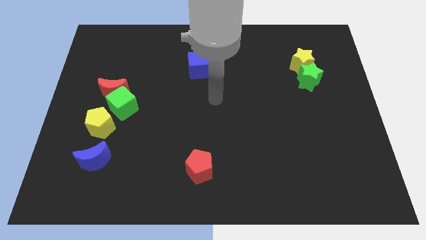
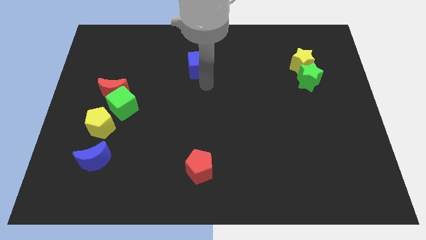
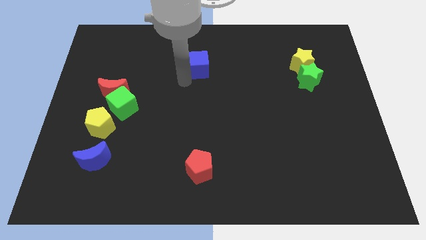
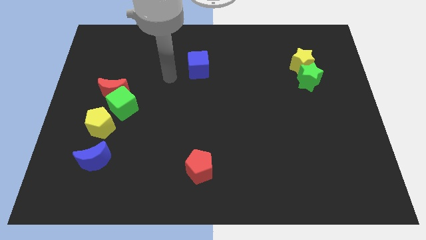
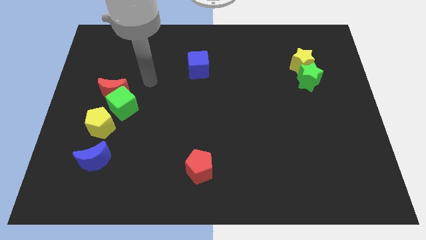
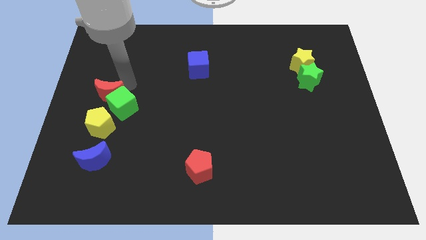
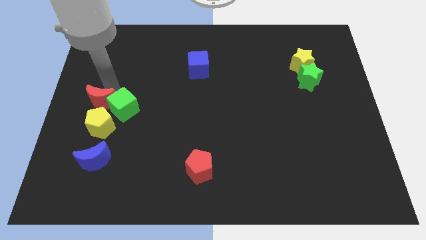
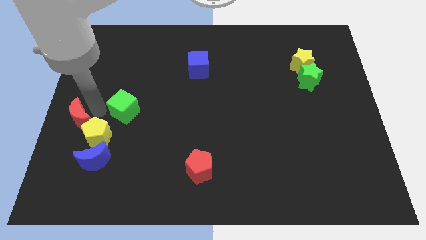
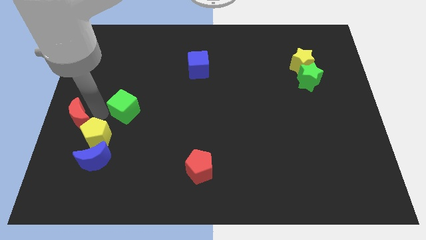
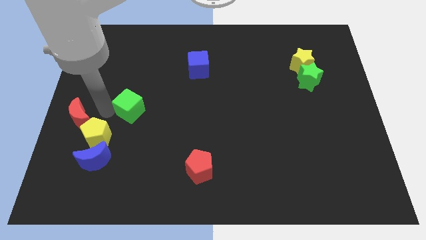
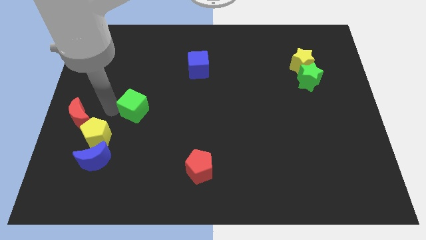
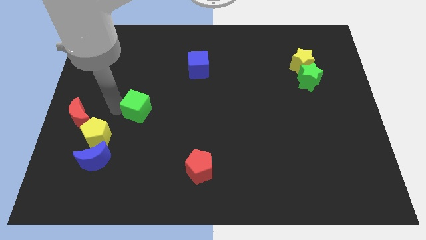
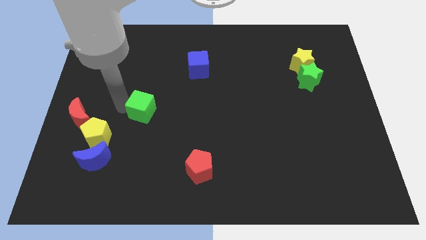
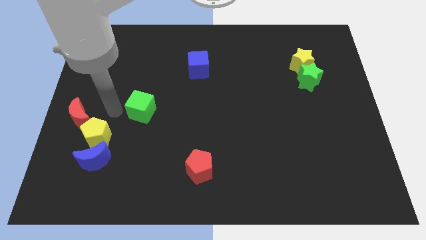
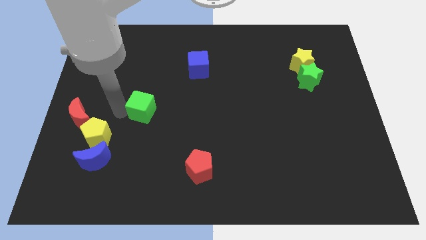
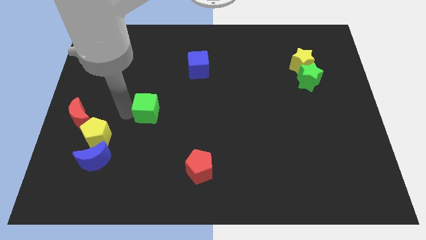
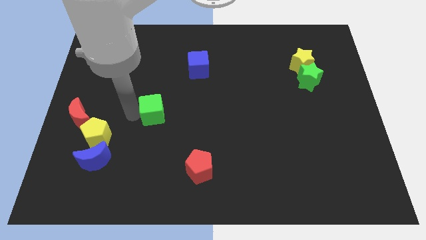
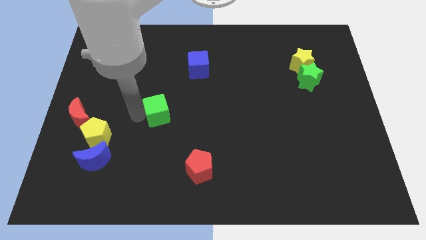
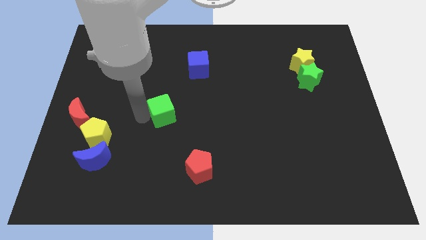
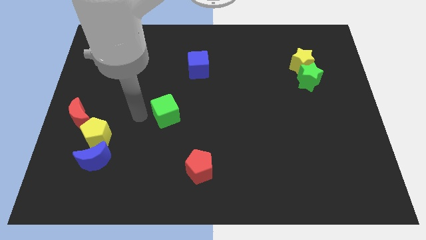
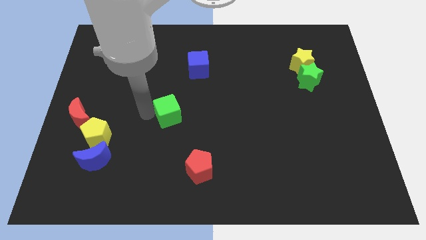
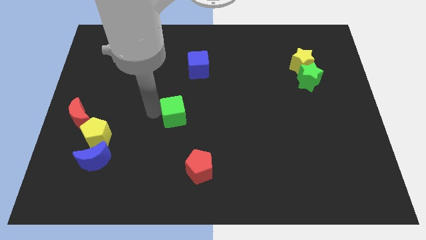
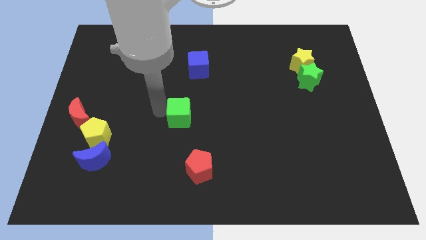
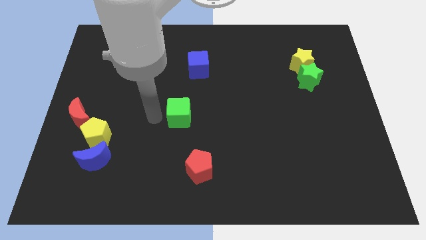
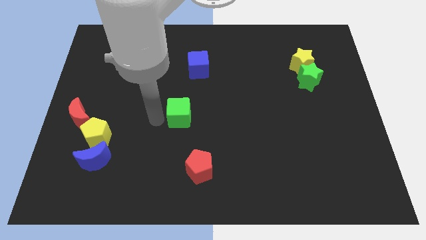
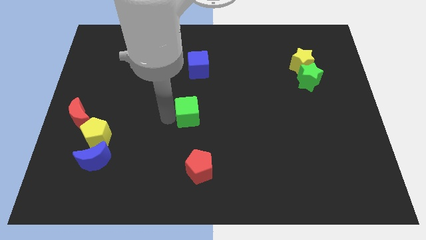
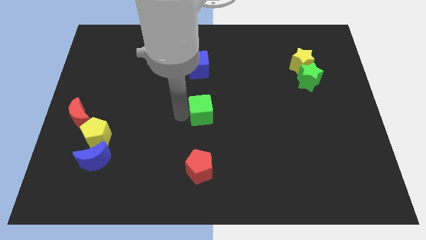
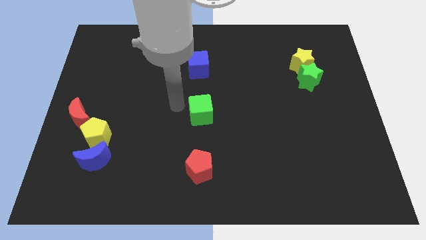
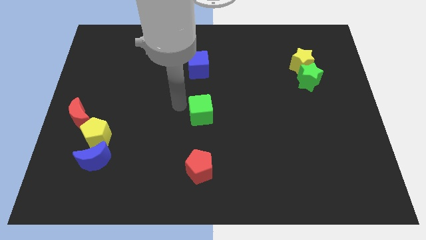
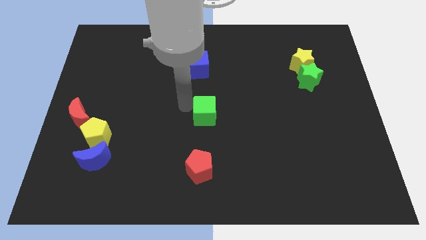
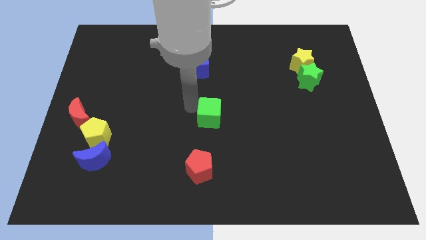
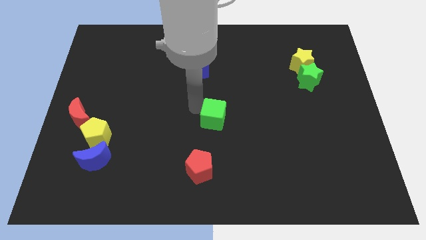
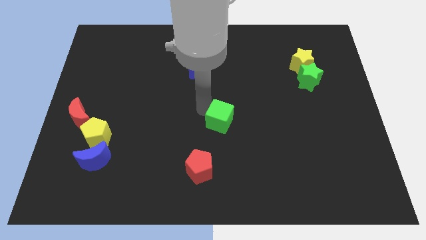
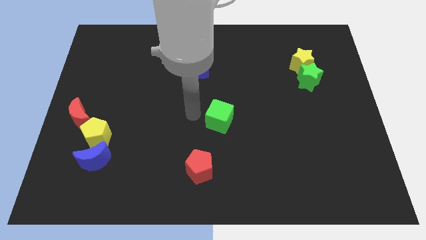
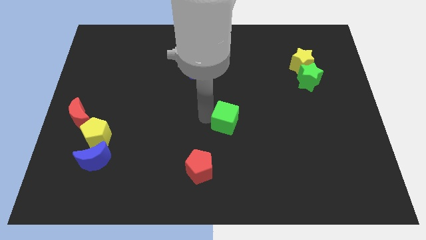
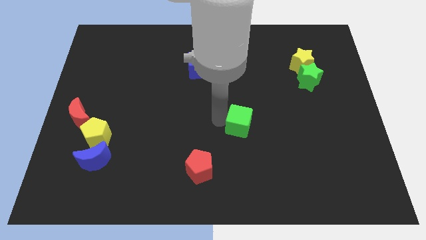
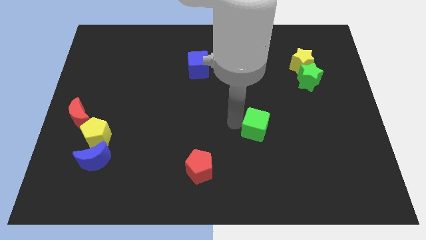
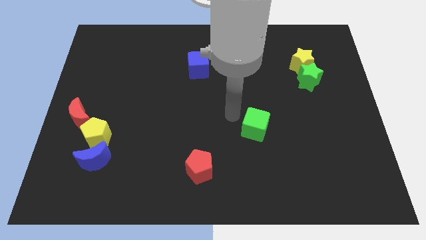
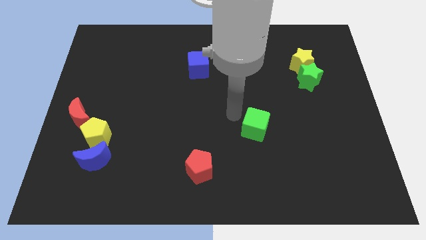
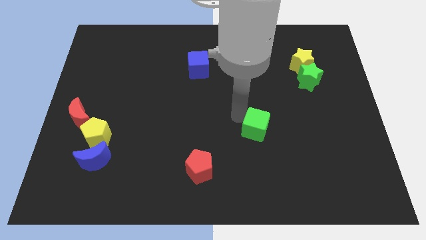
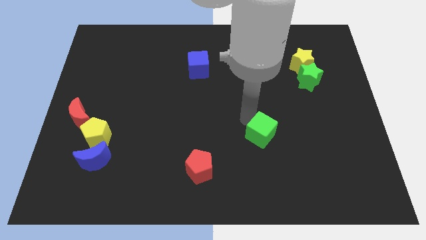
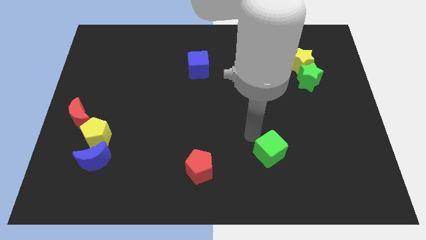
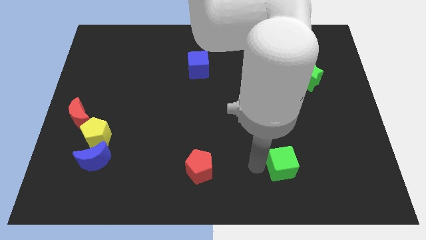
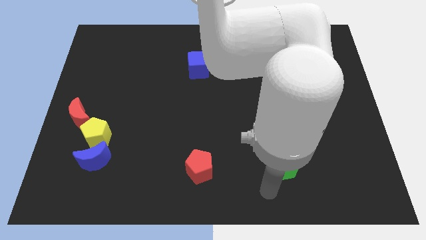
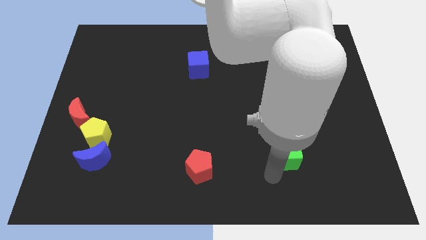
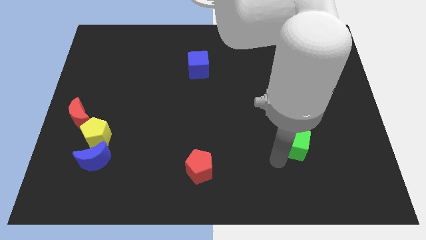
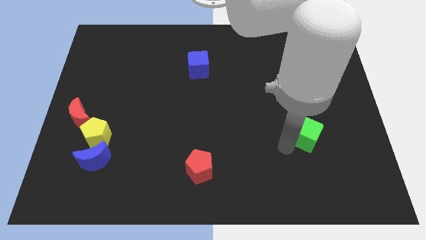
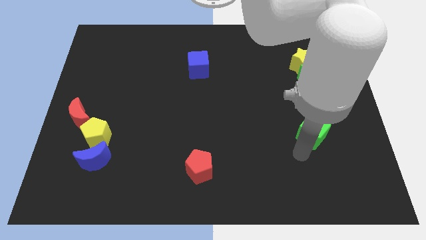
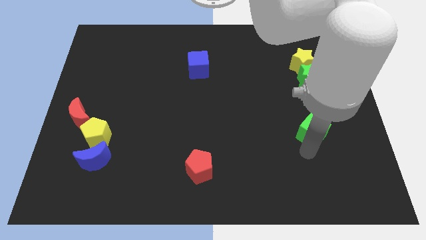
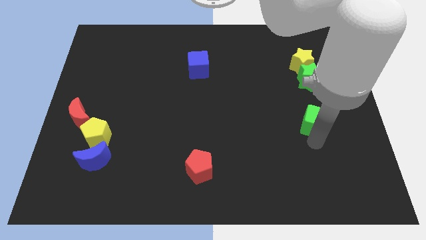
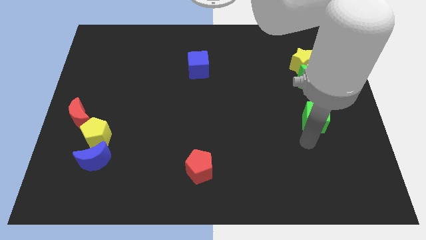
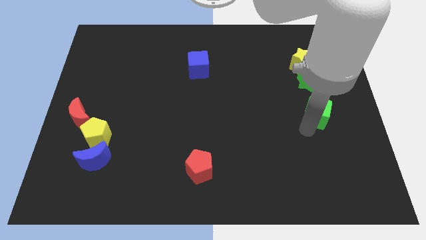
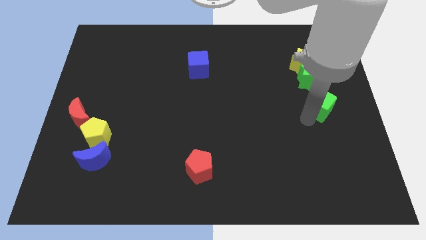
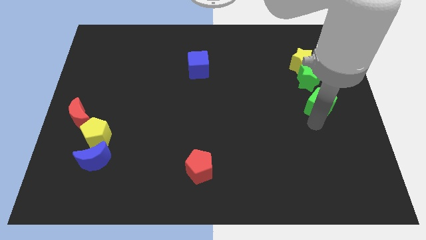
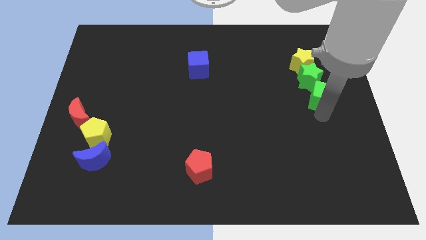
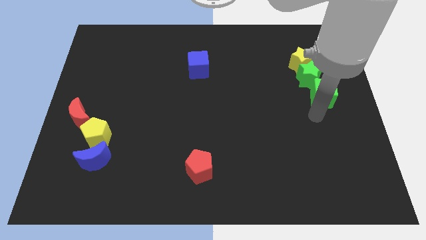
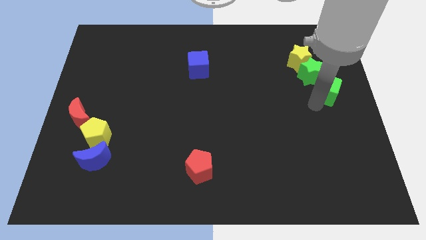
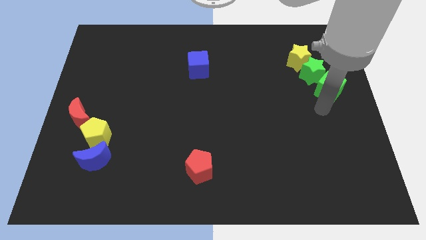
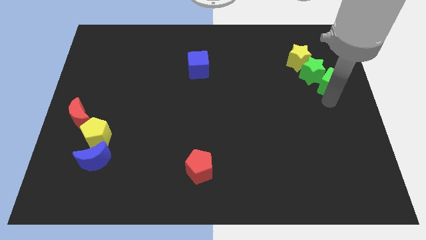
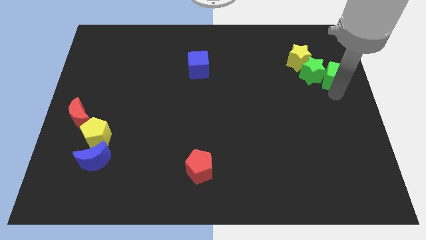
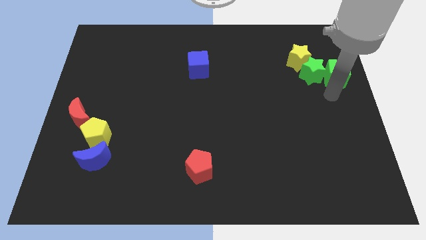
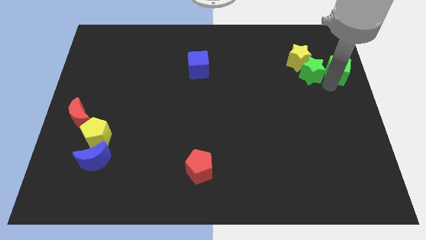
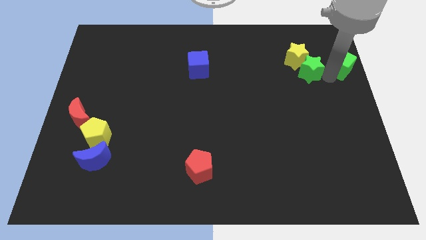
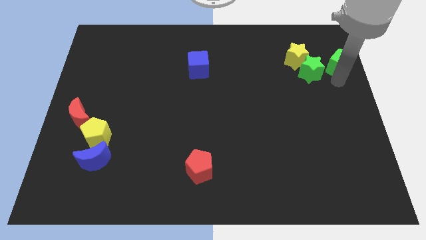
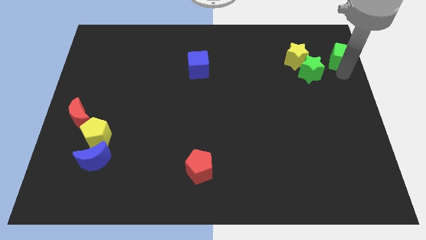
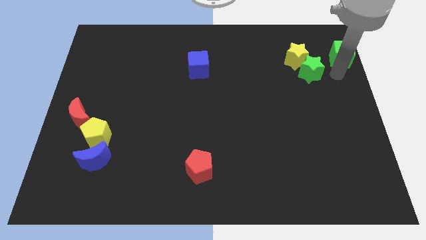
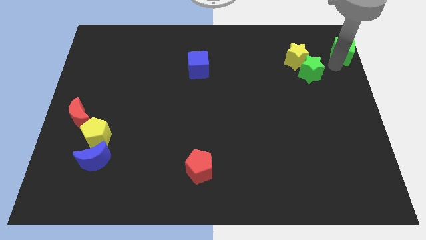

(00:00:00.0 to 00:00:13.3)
slide the green cube to the upper right corner

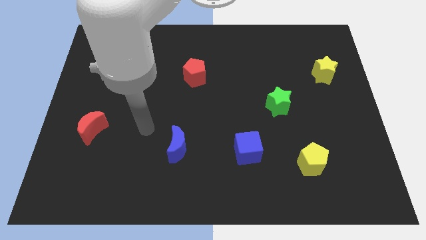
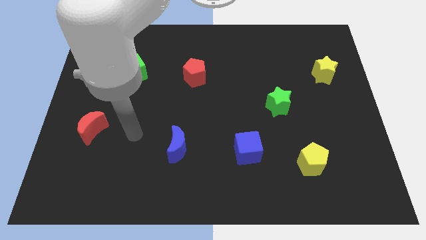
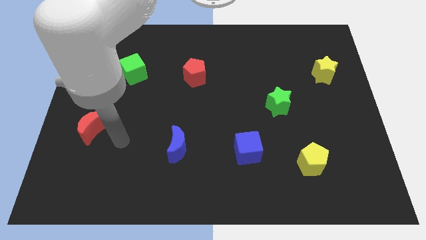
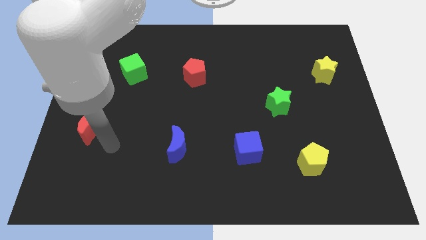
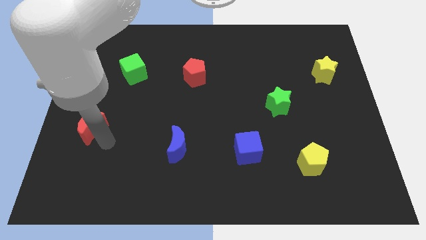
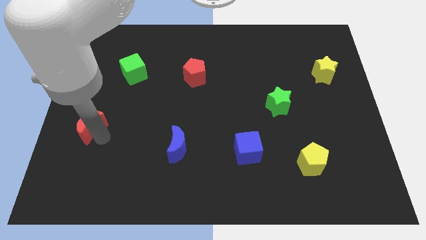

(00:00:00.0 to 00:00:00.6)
put the red moon to the left side of the board

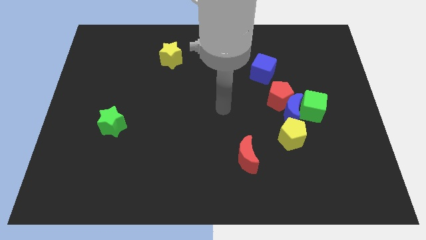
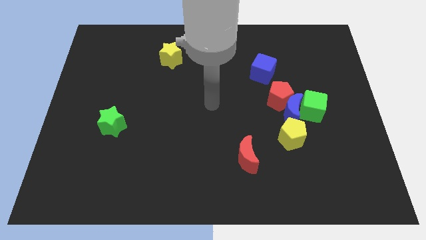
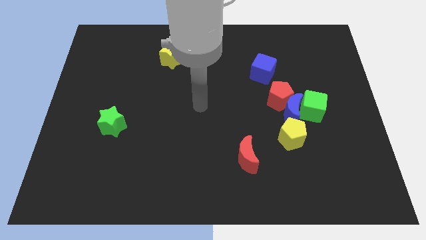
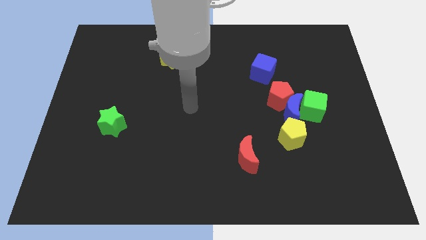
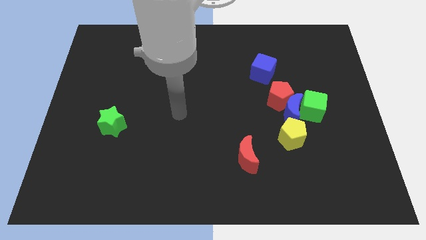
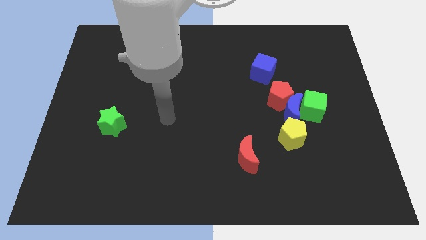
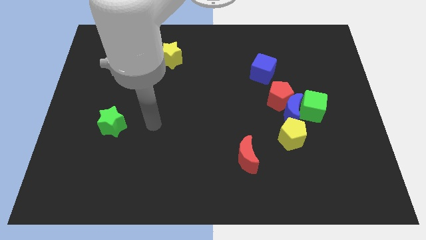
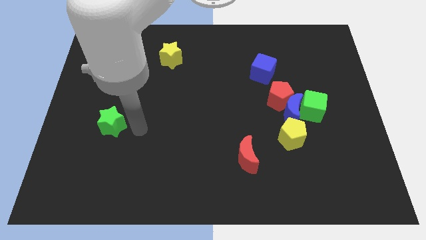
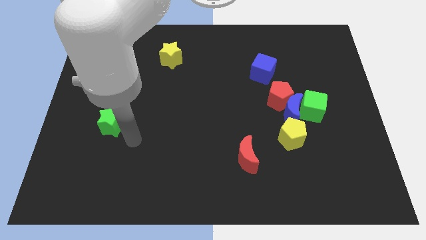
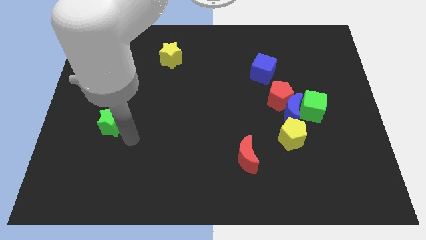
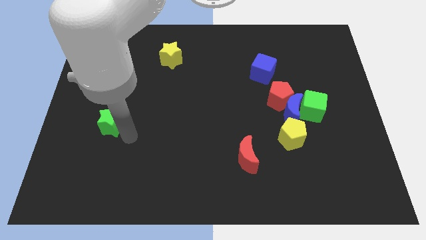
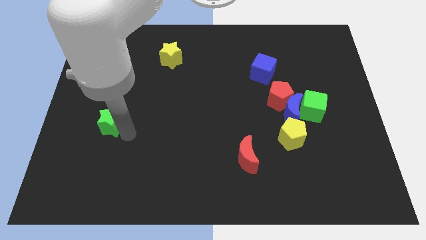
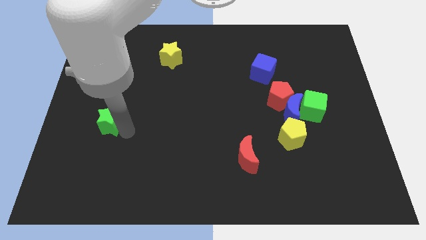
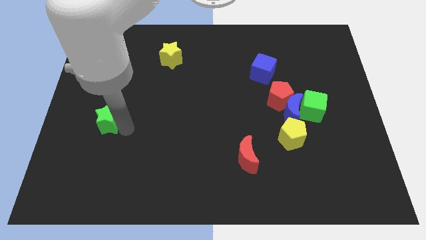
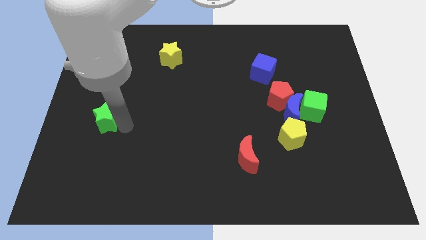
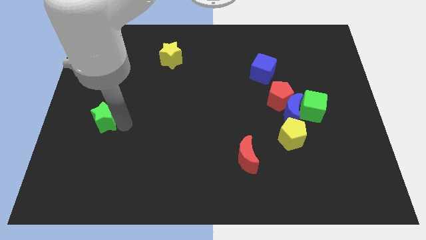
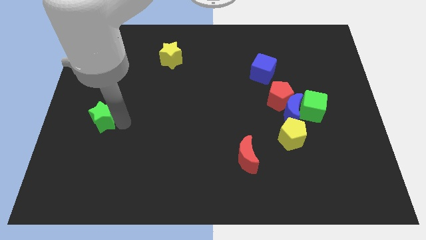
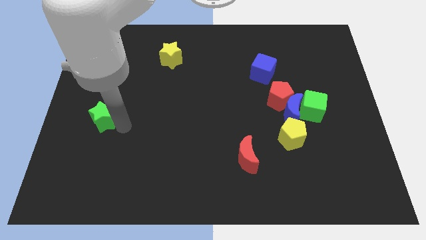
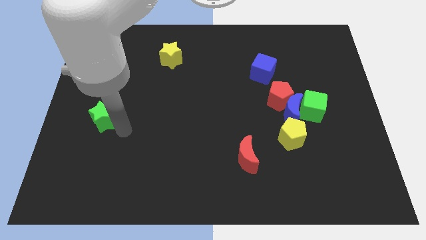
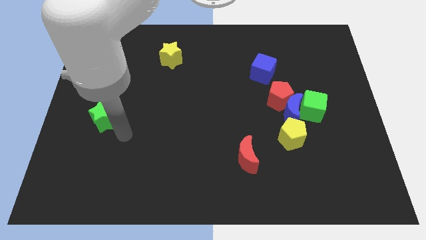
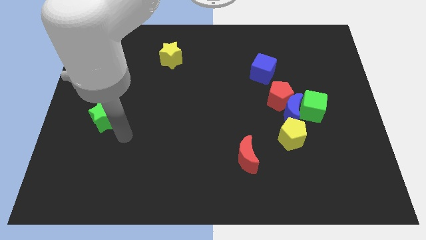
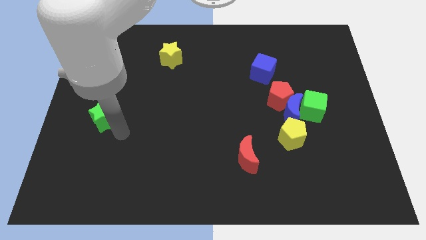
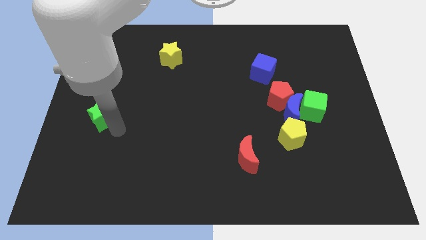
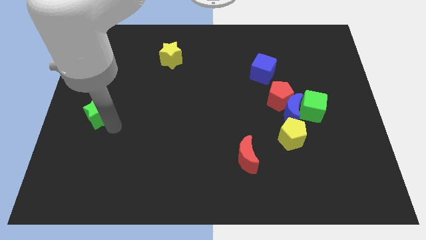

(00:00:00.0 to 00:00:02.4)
put the green star to the left side of the board
